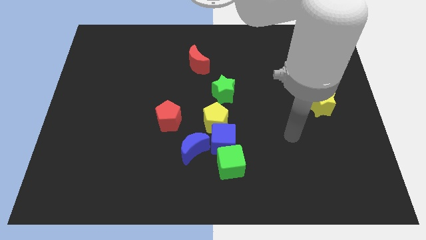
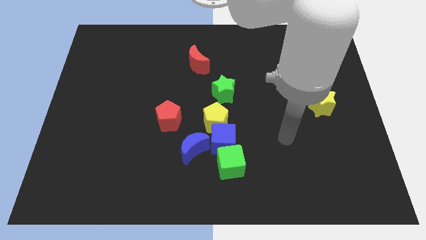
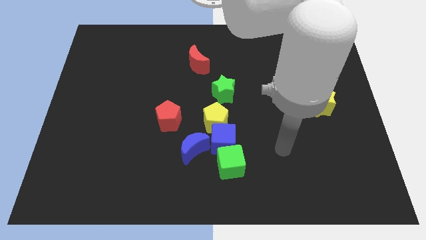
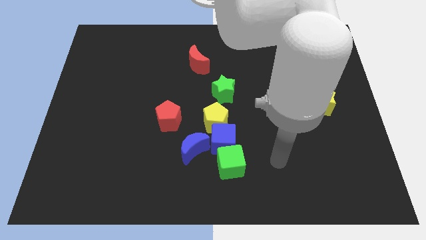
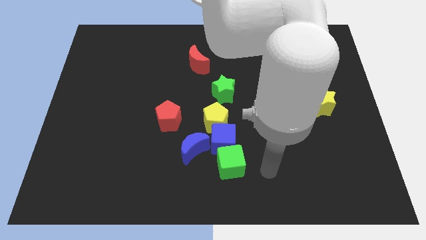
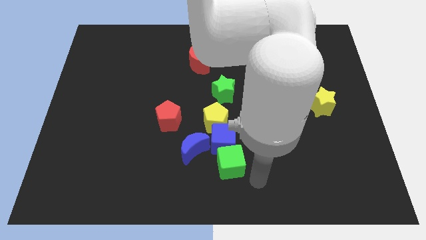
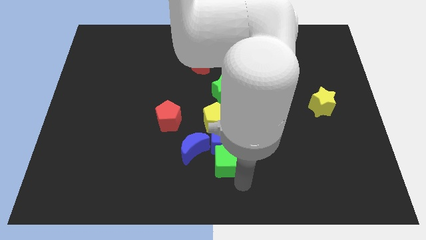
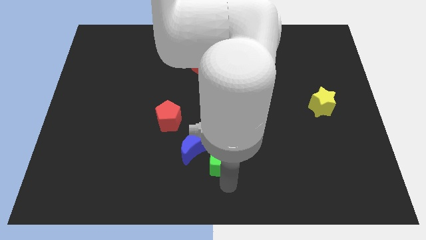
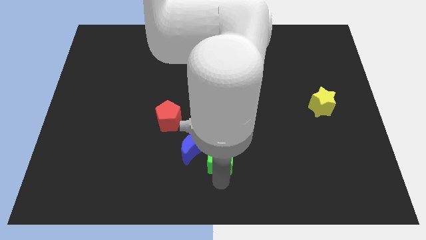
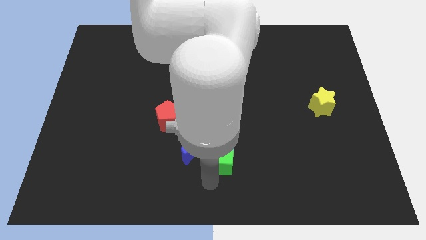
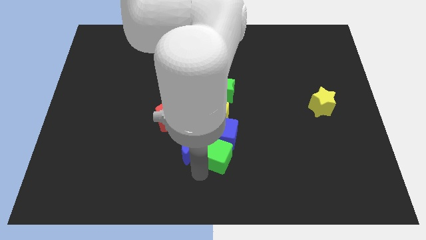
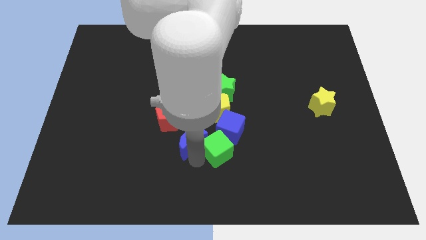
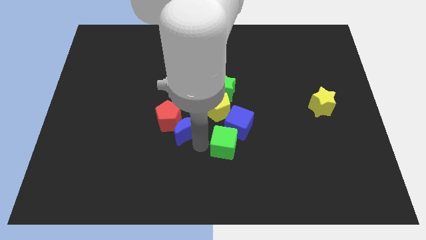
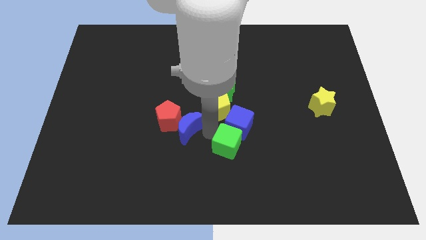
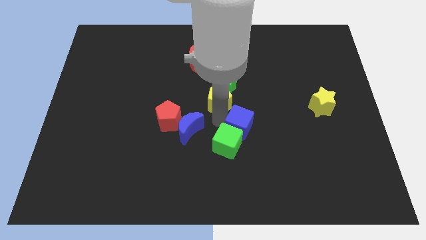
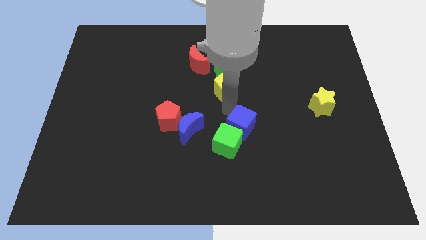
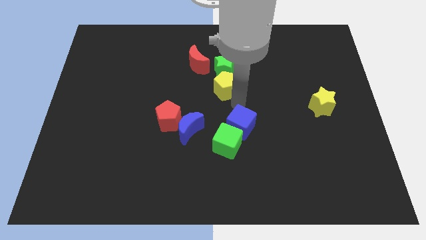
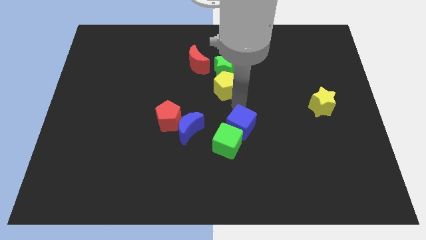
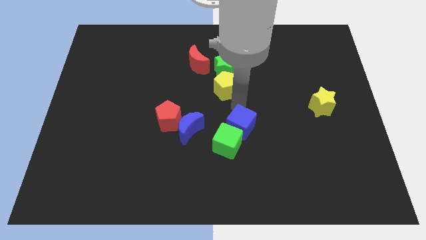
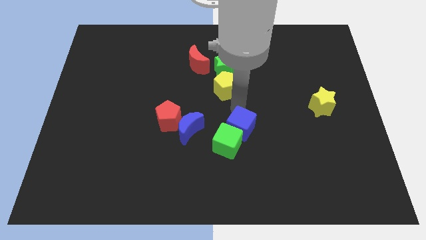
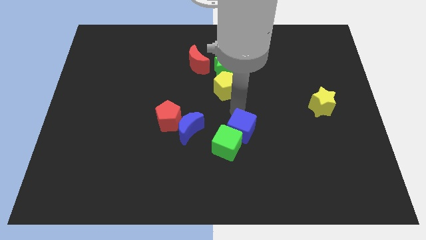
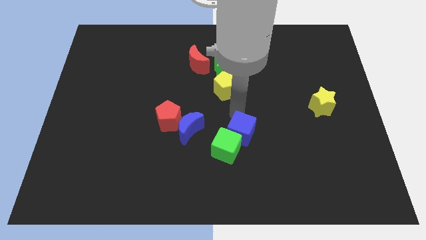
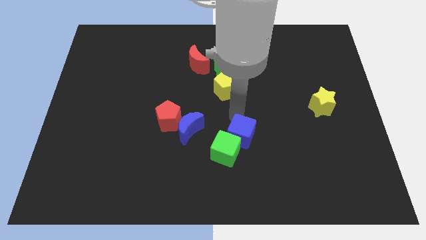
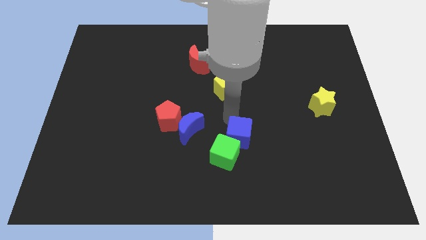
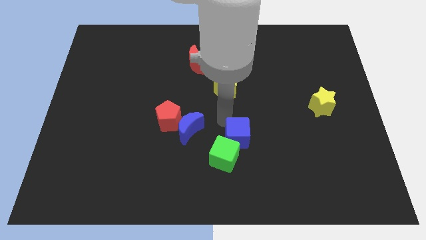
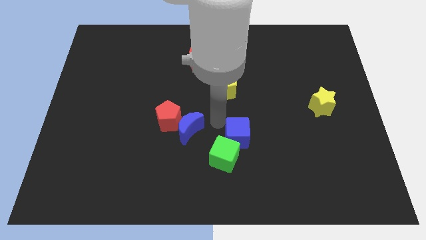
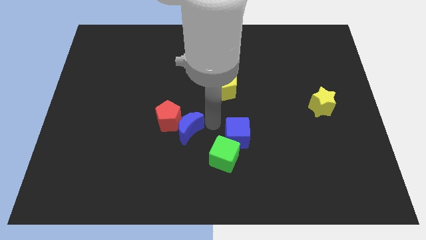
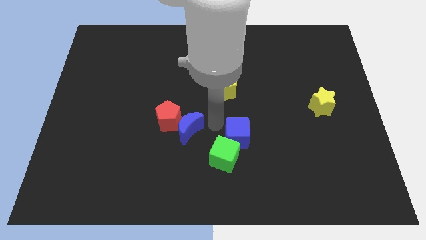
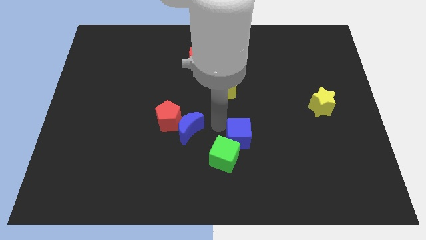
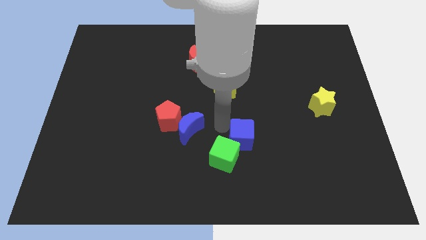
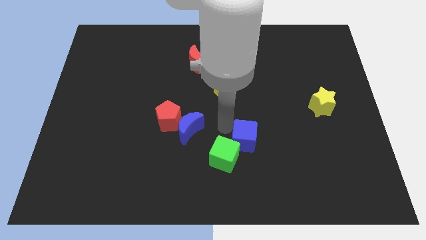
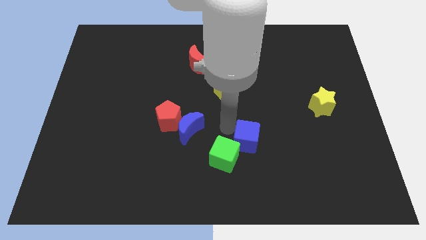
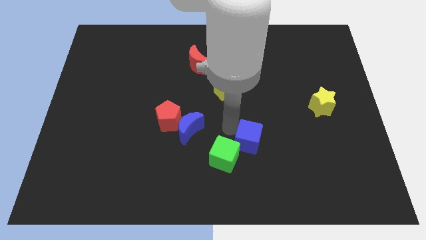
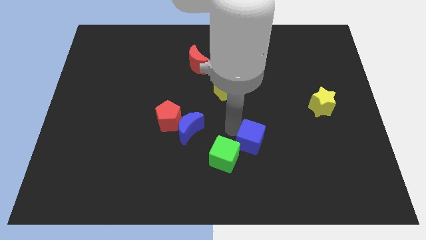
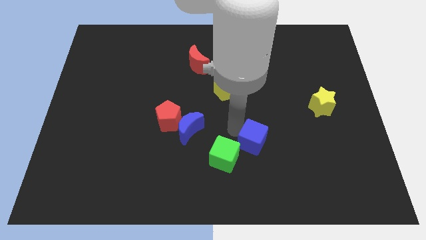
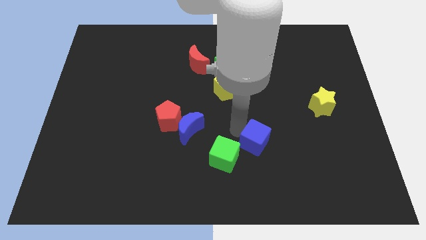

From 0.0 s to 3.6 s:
pull the blue cube apart from the group

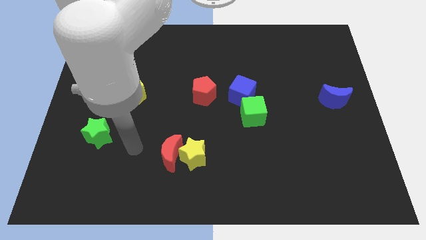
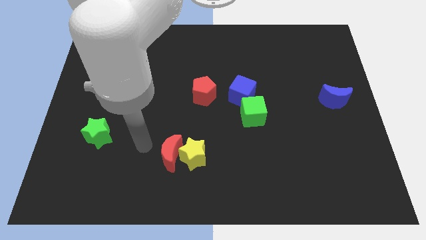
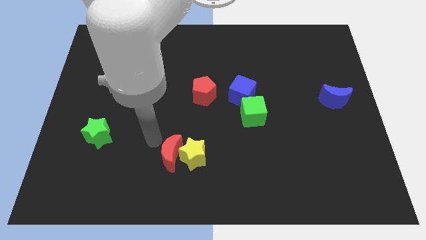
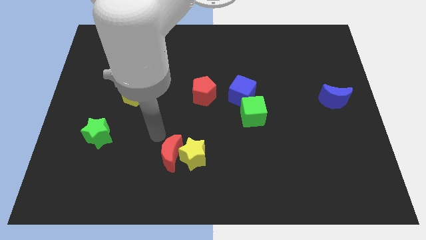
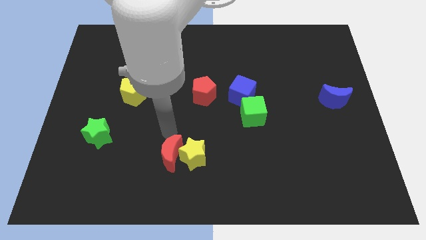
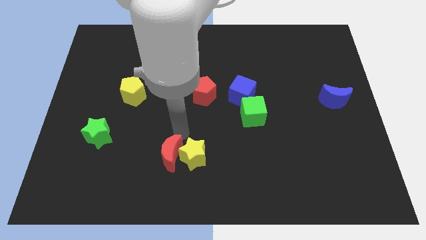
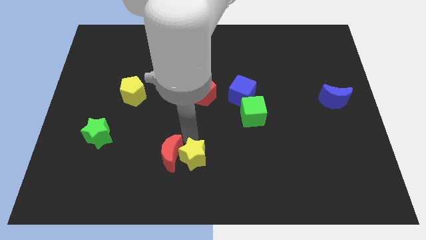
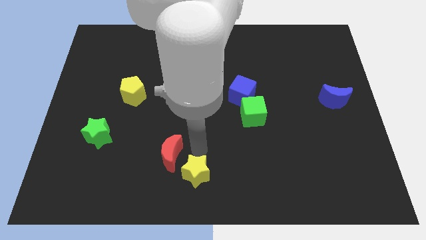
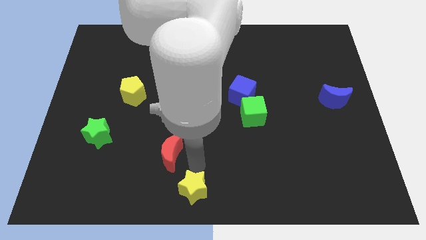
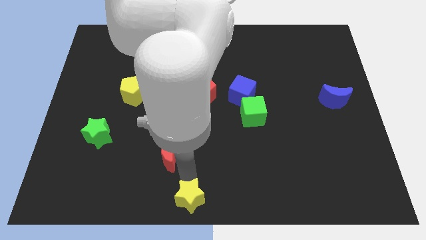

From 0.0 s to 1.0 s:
move the red moon away from the yellow star

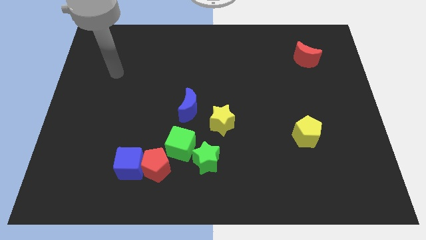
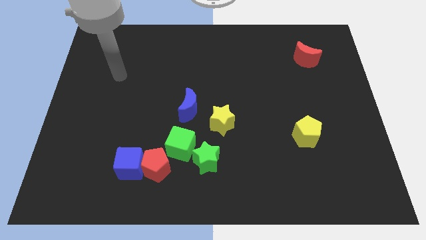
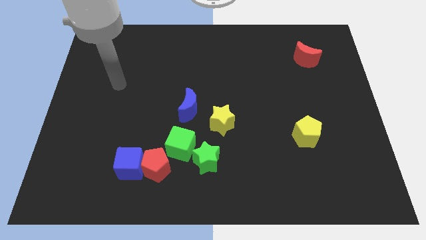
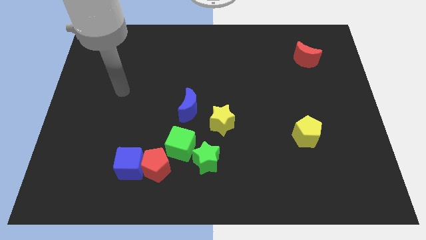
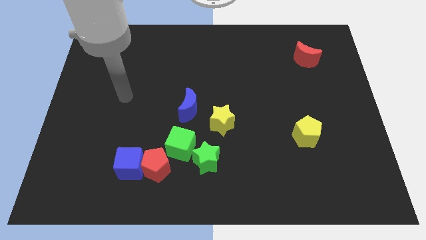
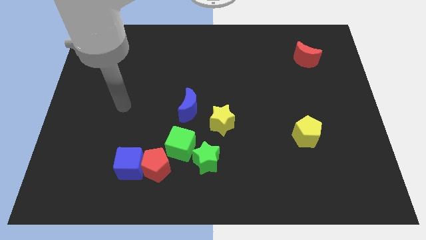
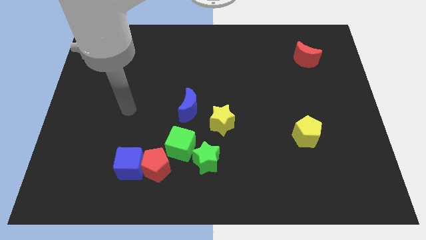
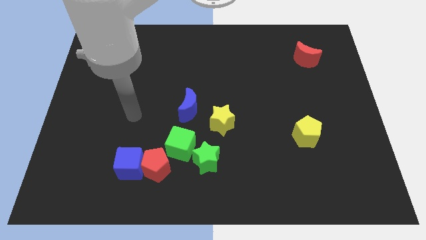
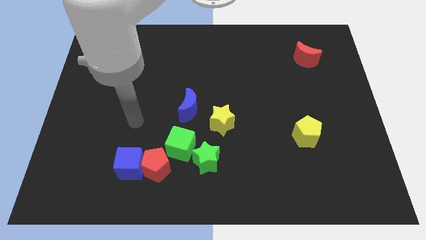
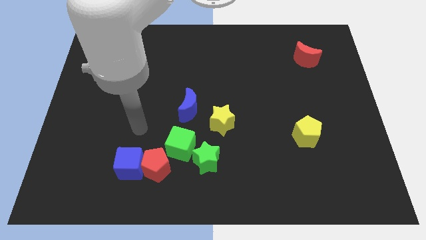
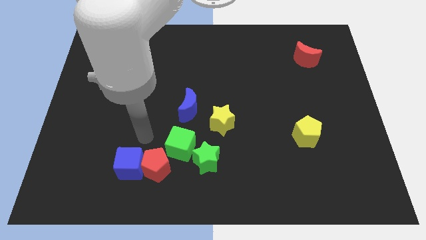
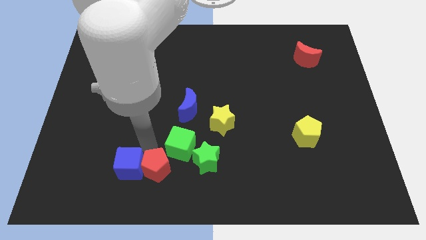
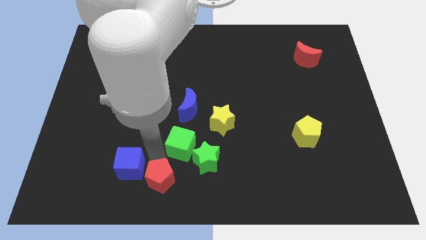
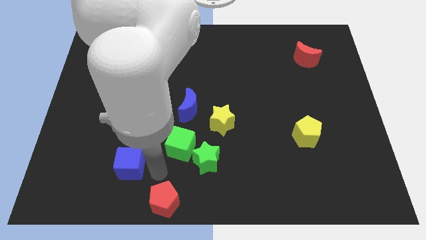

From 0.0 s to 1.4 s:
separate the blue cube from the red pentagon

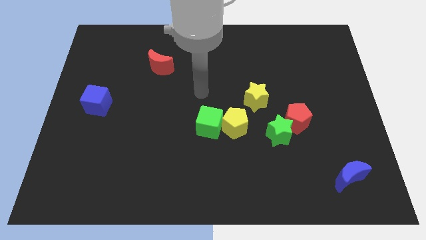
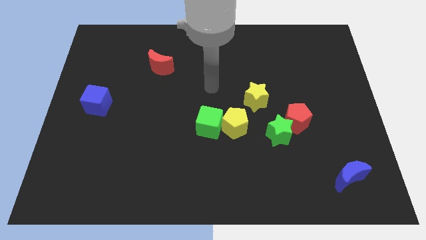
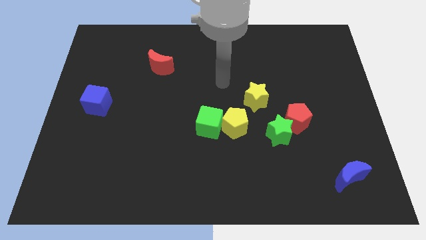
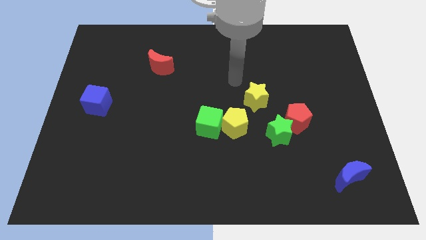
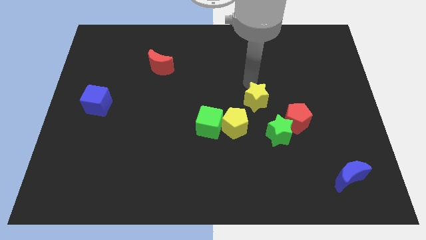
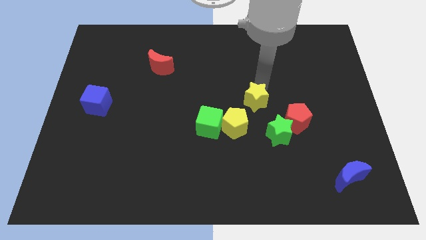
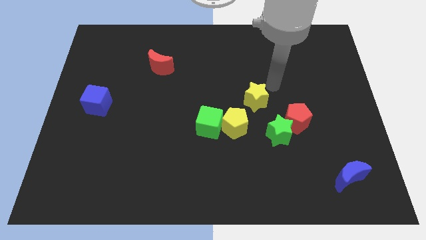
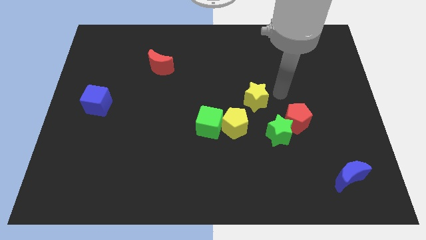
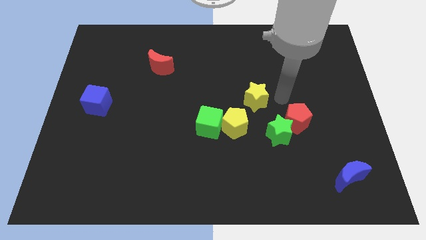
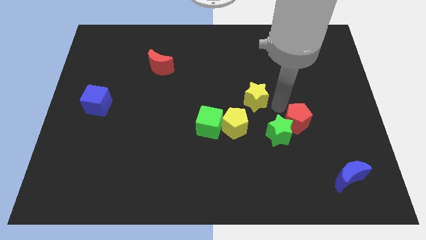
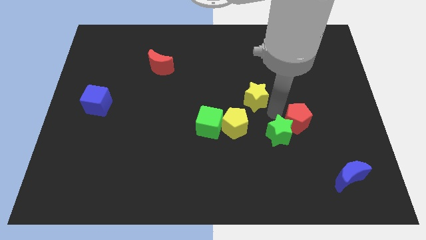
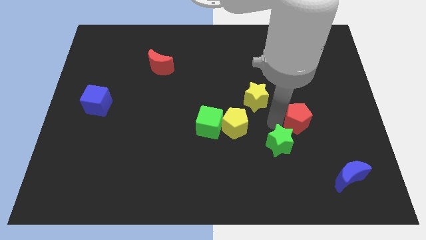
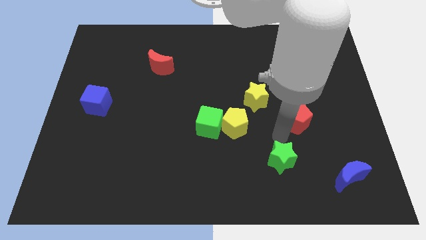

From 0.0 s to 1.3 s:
pull the red pentagon apart from the green star

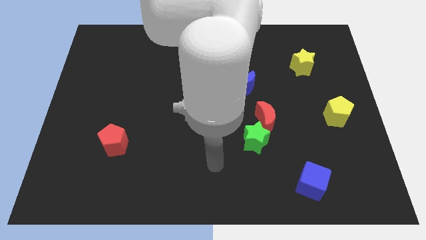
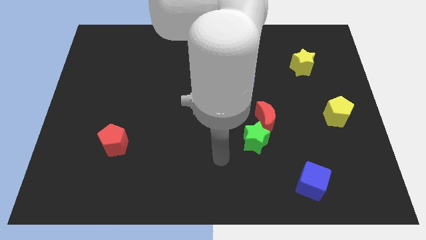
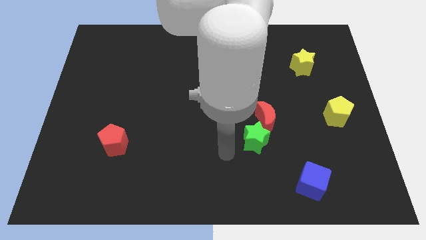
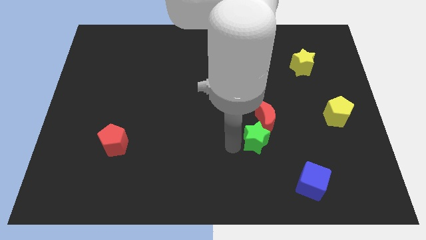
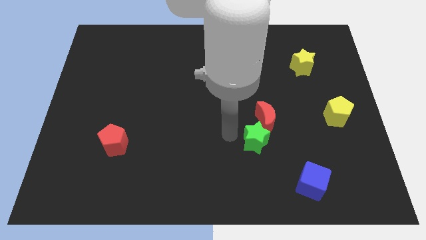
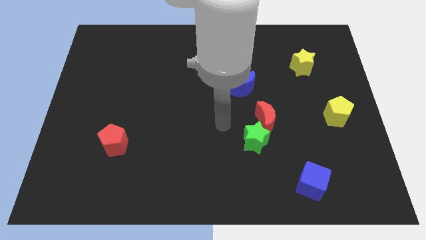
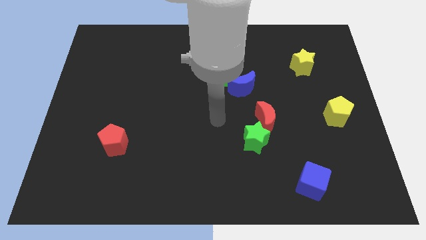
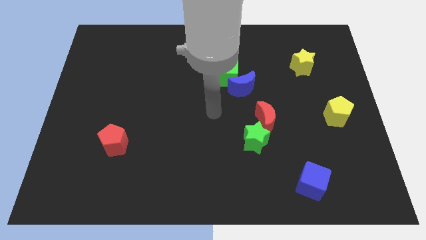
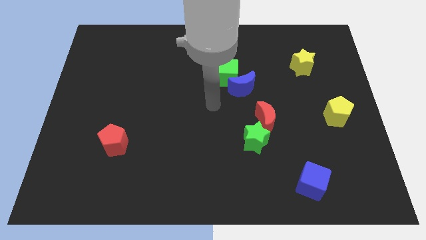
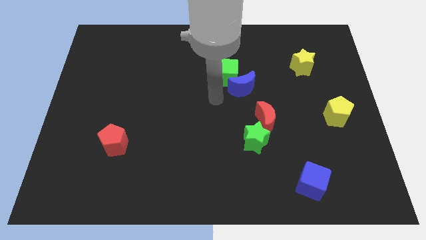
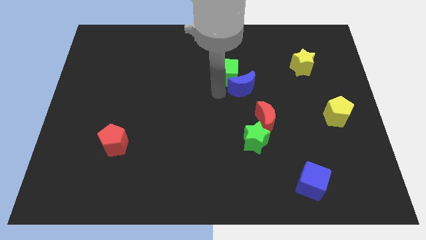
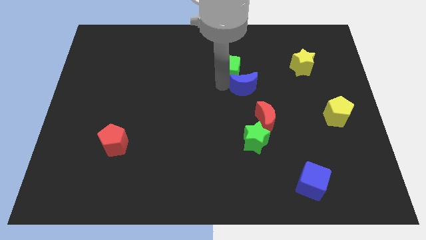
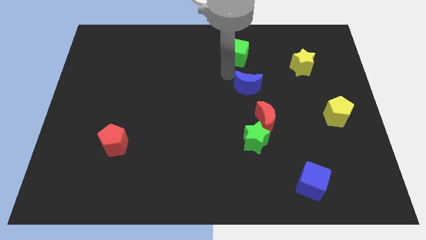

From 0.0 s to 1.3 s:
pull the blue moon apart from the green cube

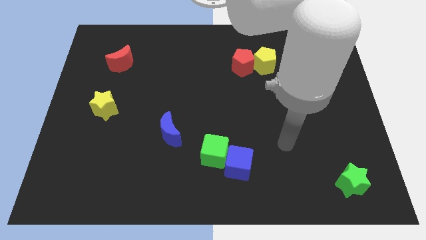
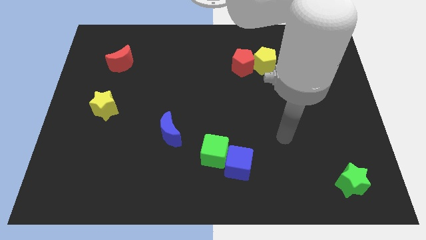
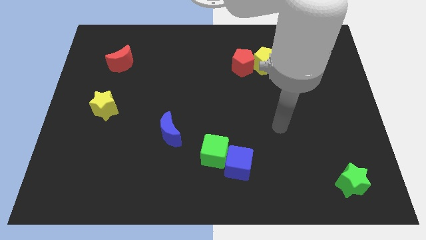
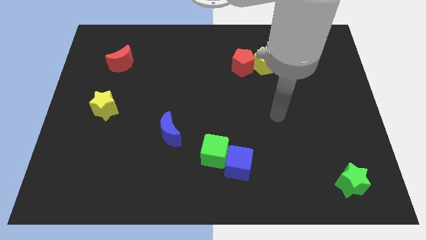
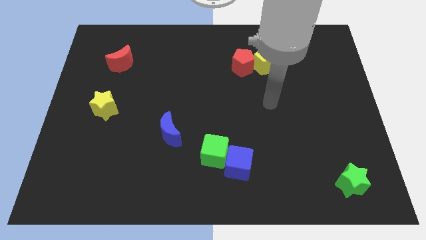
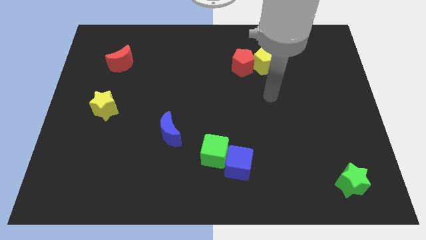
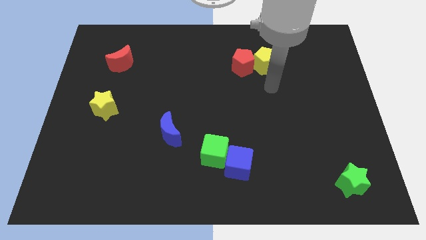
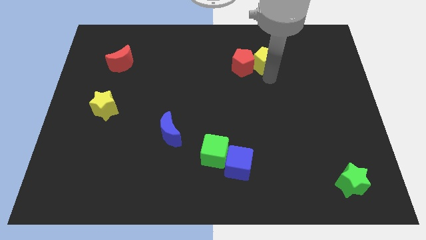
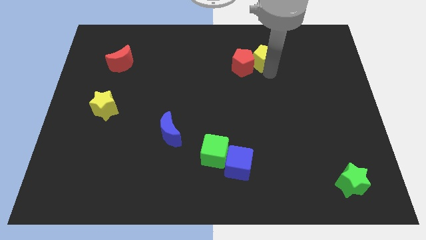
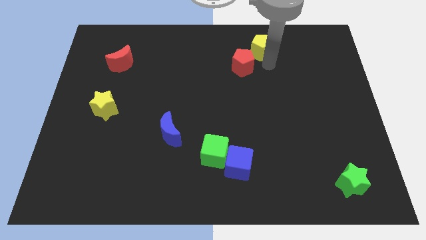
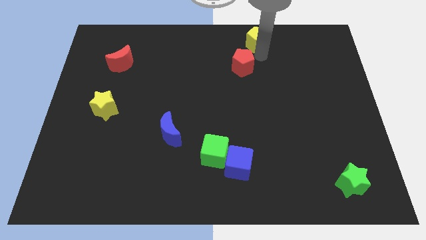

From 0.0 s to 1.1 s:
move the red pentagon away from the yellow pentagon
